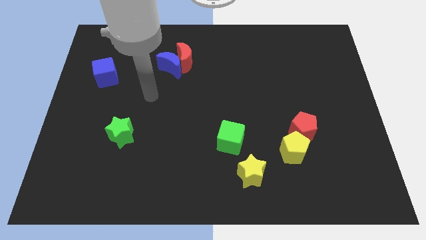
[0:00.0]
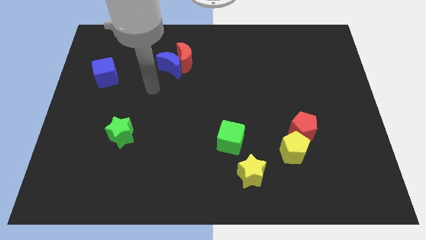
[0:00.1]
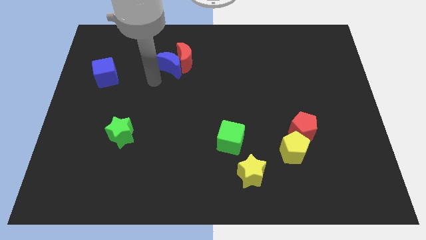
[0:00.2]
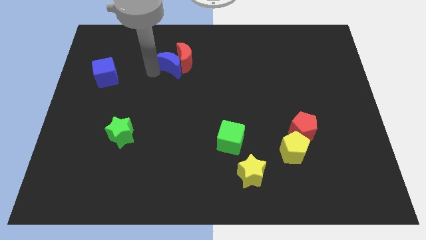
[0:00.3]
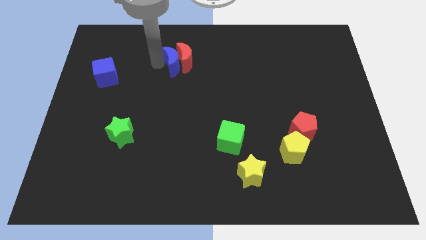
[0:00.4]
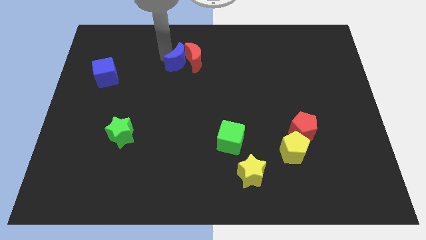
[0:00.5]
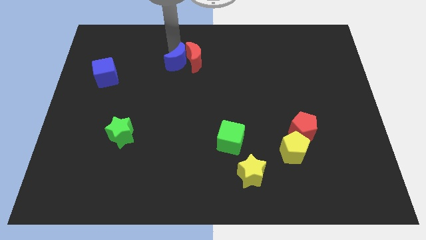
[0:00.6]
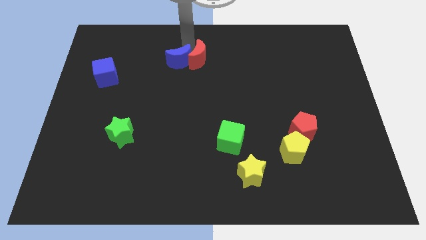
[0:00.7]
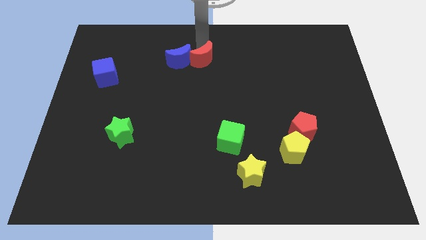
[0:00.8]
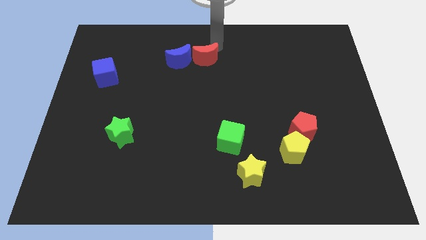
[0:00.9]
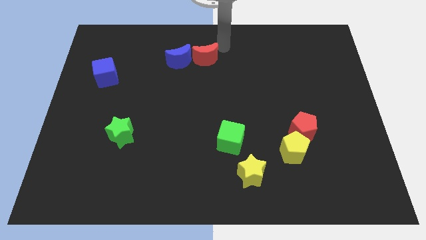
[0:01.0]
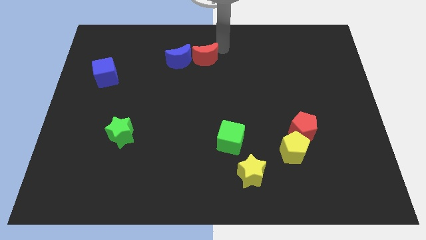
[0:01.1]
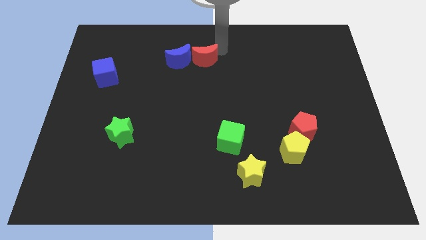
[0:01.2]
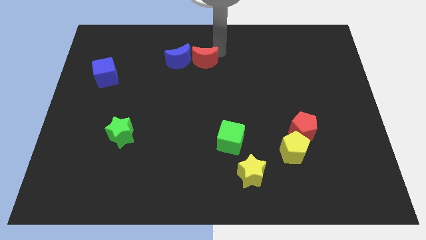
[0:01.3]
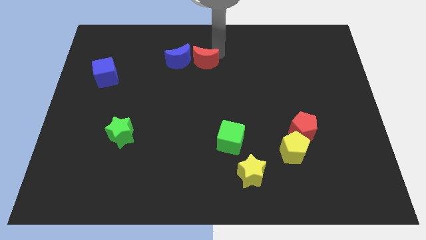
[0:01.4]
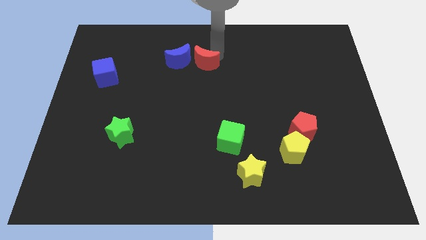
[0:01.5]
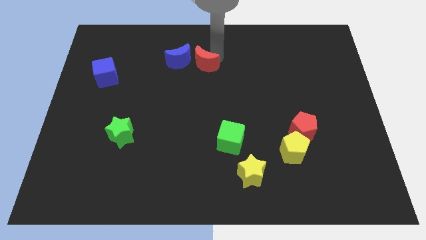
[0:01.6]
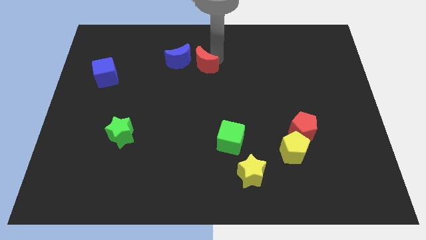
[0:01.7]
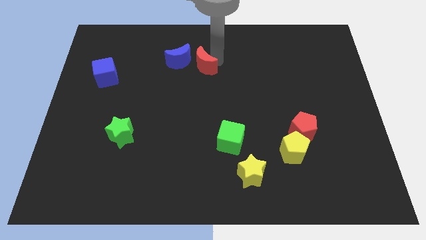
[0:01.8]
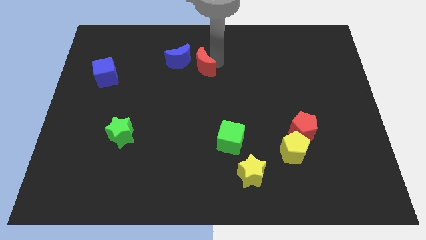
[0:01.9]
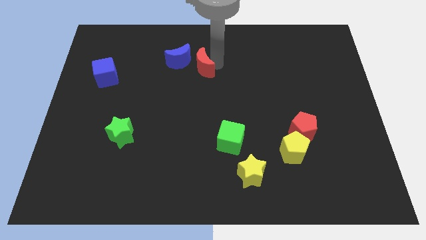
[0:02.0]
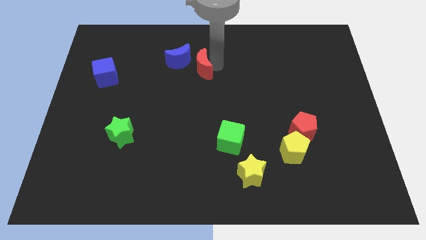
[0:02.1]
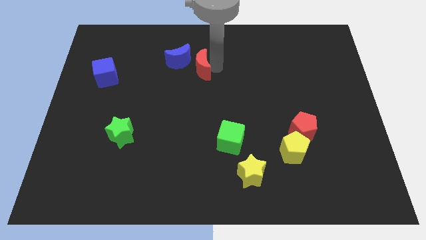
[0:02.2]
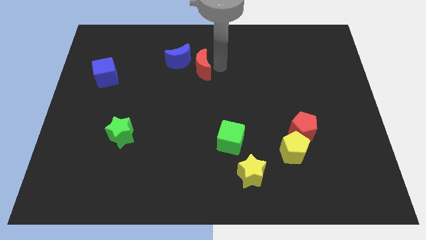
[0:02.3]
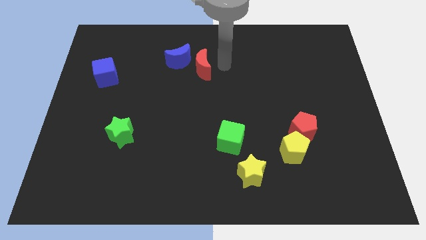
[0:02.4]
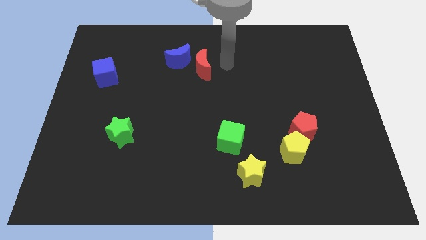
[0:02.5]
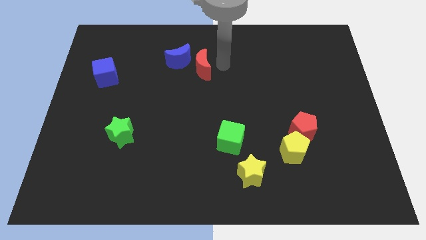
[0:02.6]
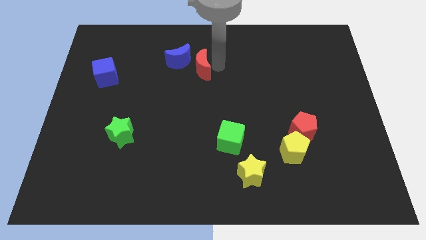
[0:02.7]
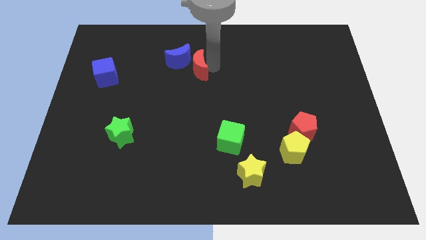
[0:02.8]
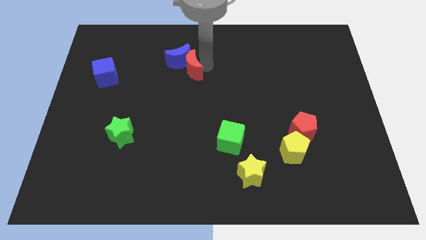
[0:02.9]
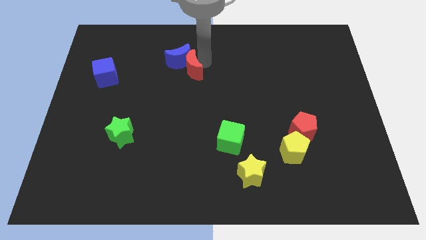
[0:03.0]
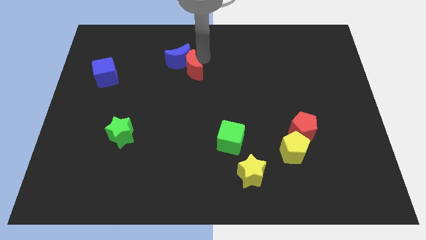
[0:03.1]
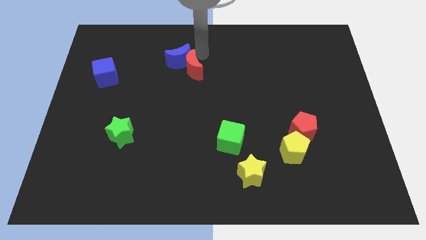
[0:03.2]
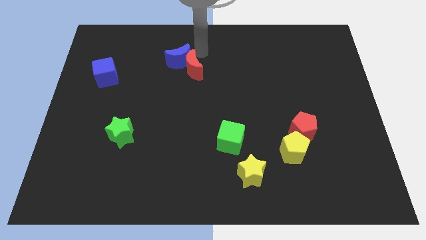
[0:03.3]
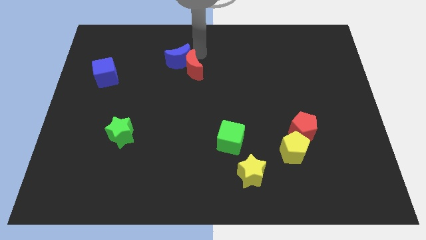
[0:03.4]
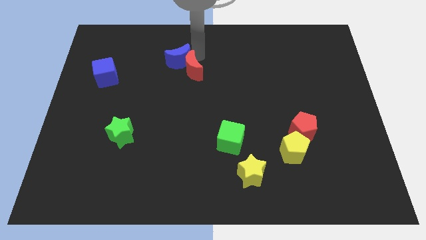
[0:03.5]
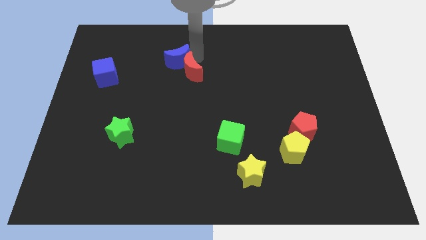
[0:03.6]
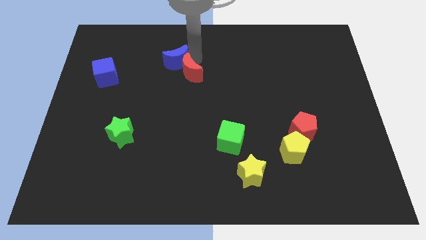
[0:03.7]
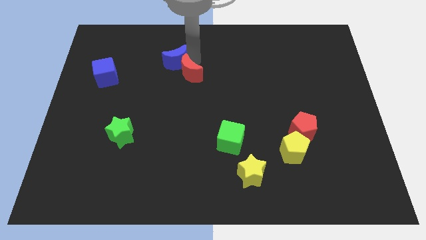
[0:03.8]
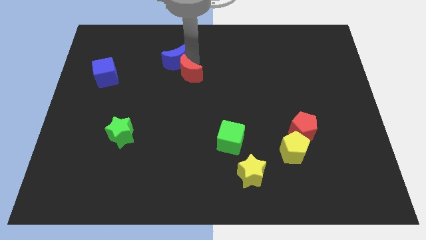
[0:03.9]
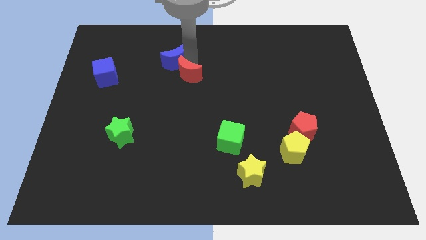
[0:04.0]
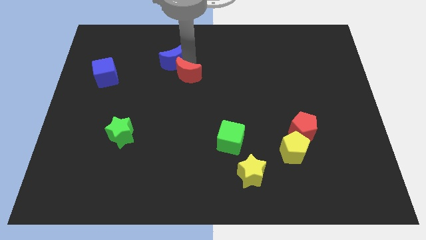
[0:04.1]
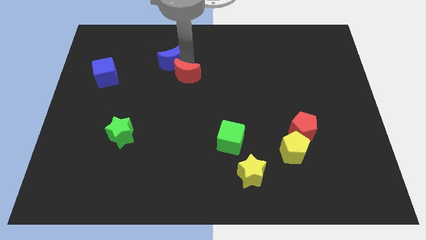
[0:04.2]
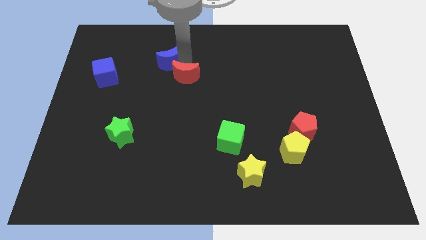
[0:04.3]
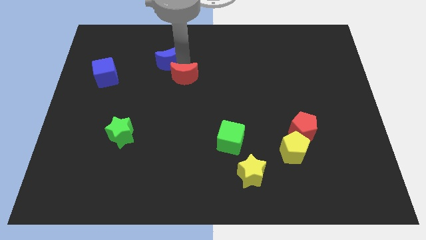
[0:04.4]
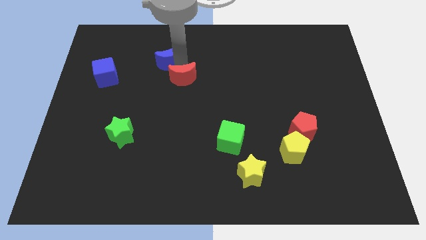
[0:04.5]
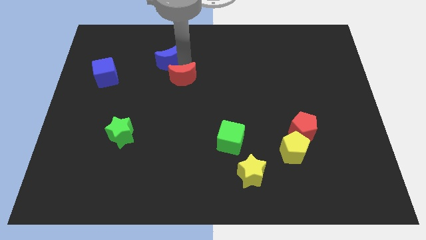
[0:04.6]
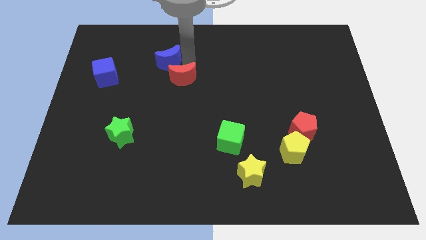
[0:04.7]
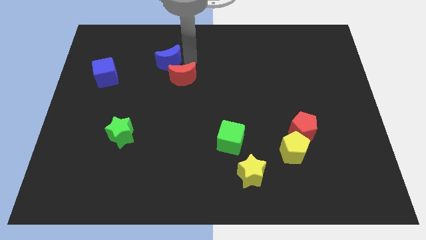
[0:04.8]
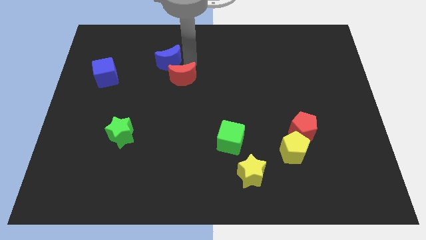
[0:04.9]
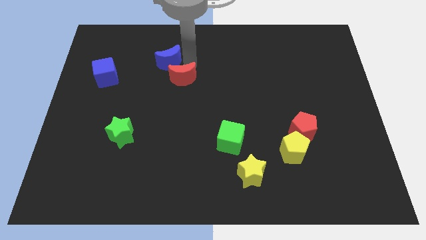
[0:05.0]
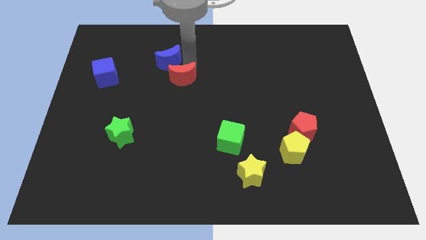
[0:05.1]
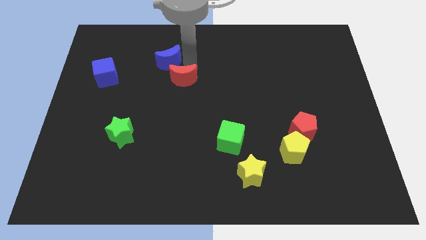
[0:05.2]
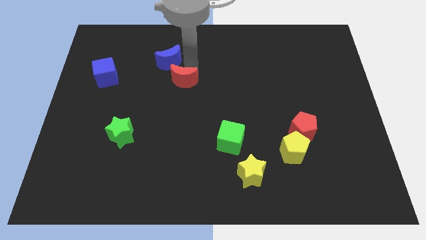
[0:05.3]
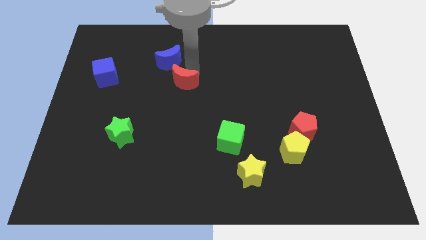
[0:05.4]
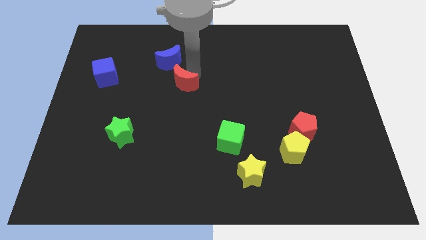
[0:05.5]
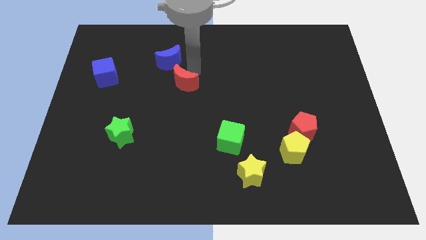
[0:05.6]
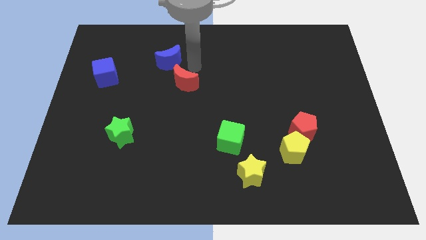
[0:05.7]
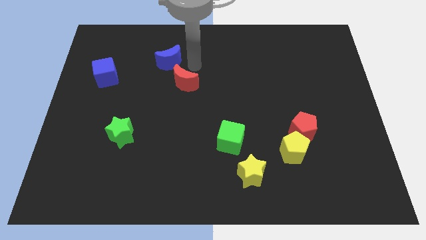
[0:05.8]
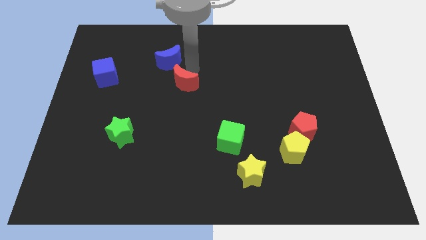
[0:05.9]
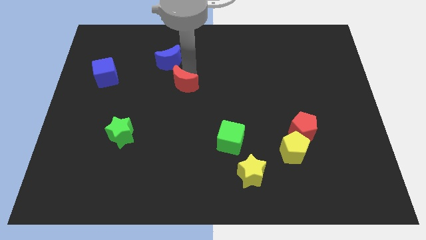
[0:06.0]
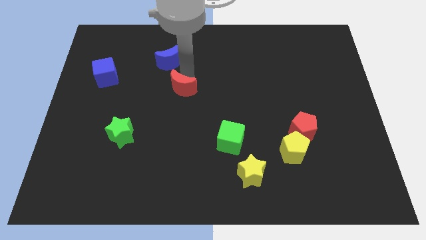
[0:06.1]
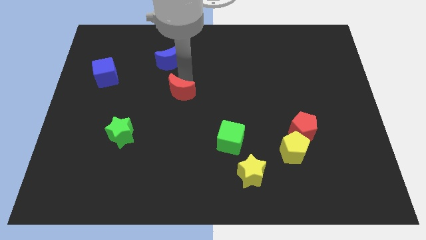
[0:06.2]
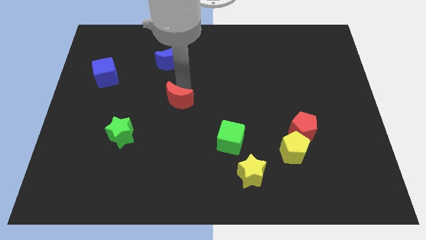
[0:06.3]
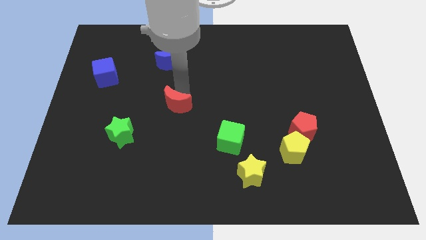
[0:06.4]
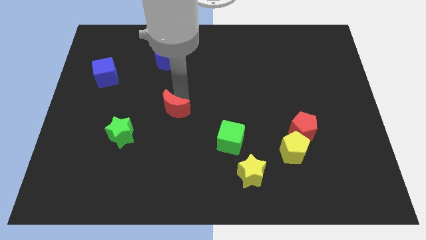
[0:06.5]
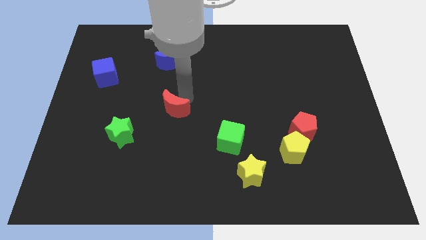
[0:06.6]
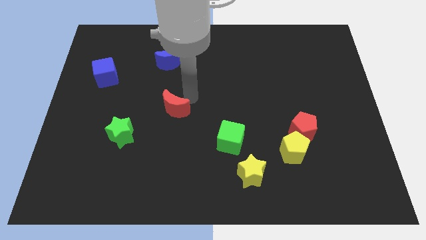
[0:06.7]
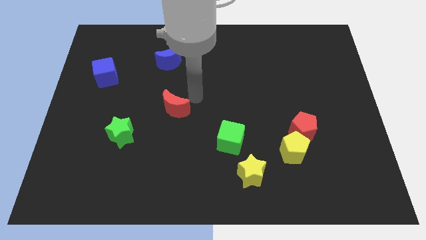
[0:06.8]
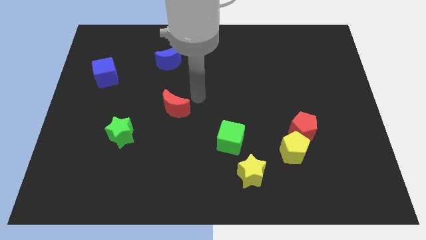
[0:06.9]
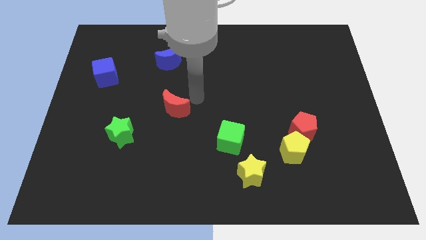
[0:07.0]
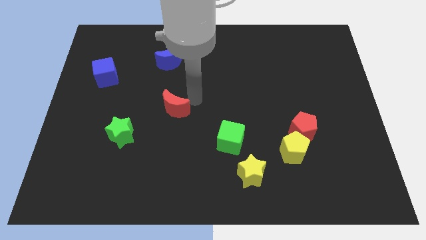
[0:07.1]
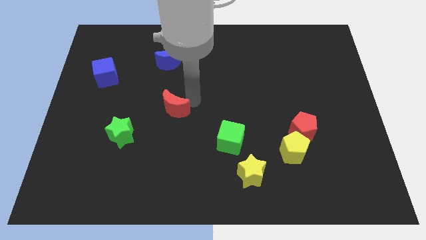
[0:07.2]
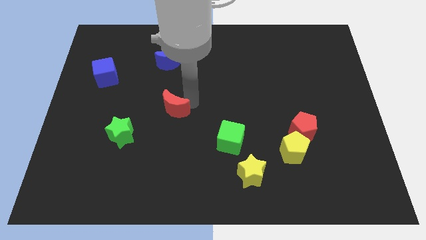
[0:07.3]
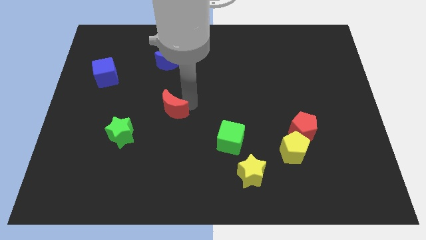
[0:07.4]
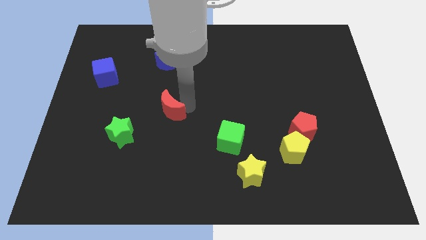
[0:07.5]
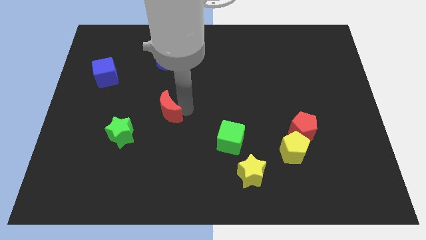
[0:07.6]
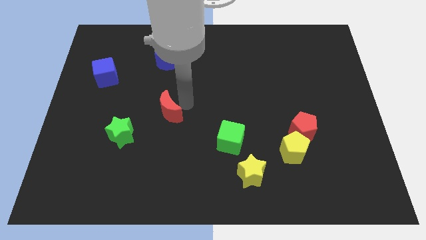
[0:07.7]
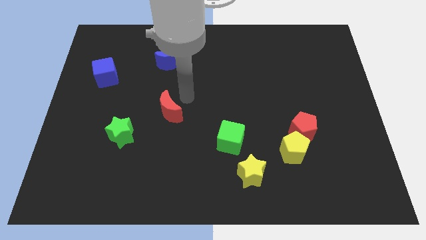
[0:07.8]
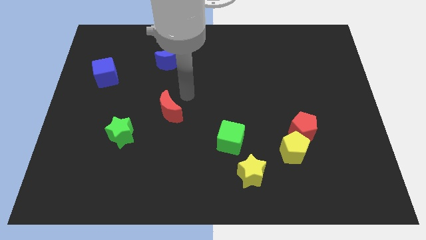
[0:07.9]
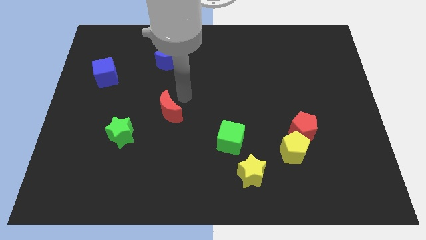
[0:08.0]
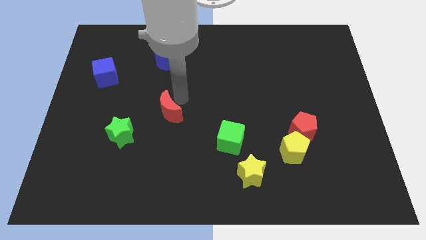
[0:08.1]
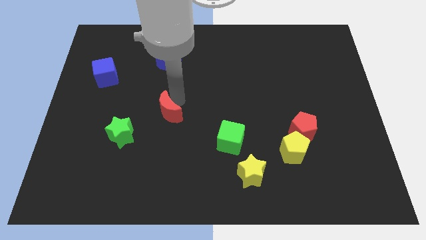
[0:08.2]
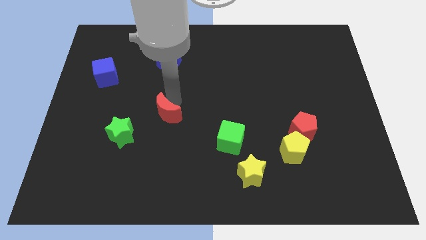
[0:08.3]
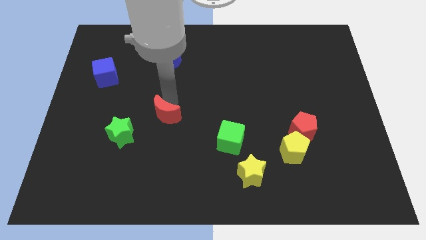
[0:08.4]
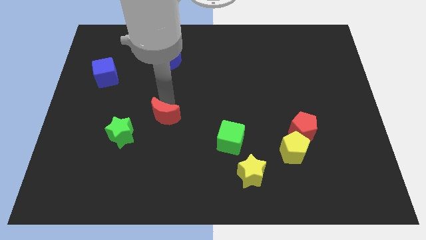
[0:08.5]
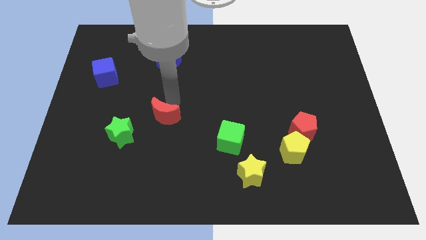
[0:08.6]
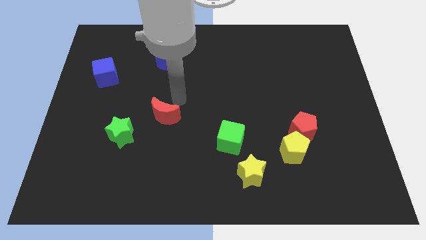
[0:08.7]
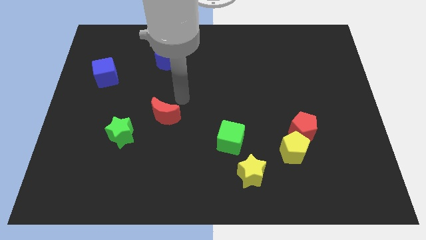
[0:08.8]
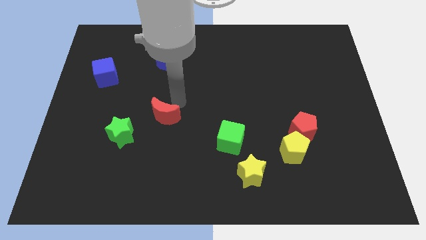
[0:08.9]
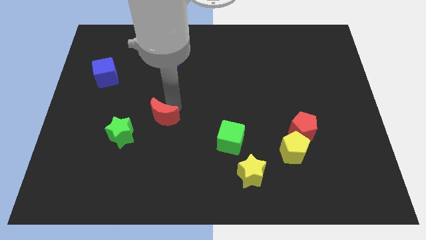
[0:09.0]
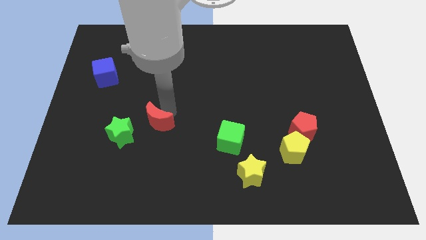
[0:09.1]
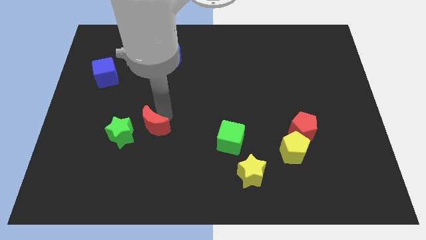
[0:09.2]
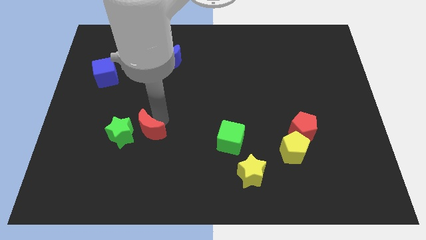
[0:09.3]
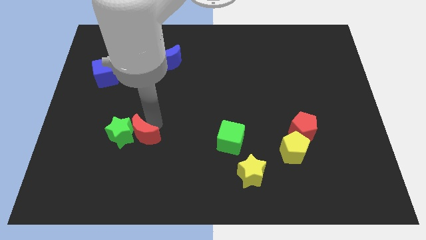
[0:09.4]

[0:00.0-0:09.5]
move the red moon diagonally down and to the right of the green star
